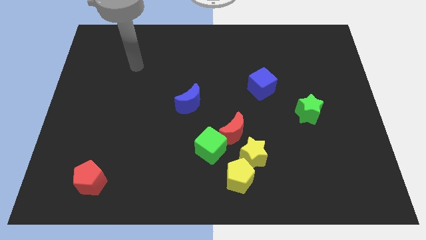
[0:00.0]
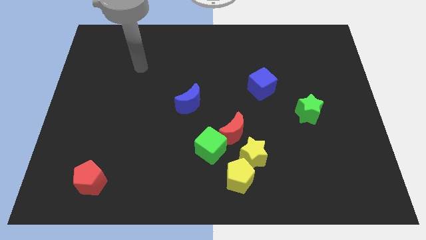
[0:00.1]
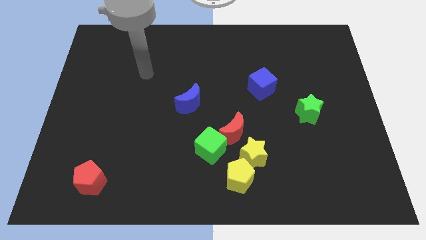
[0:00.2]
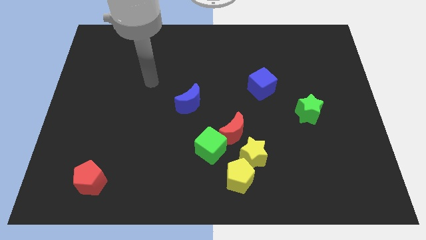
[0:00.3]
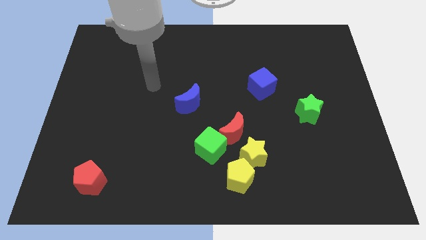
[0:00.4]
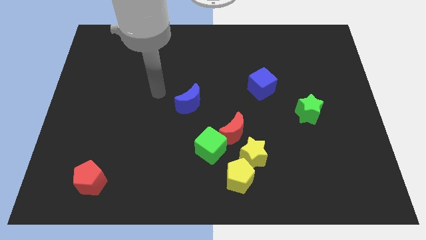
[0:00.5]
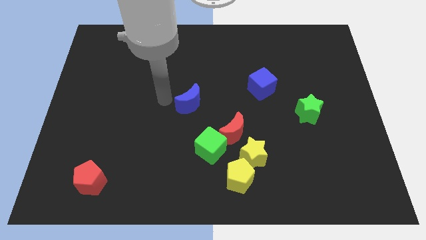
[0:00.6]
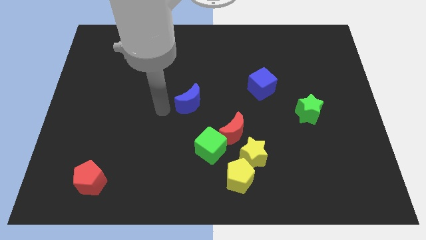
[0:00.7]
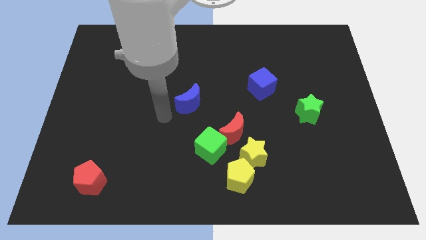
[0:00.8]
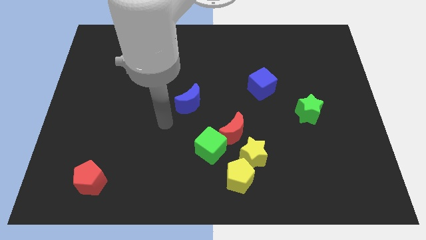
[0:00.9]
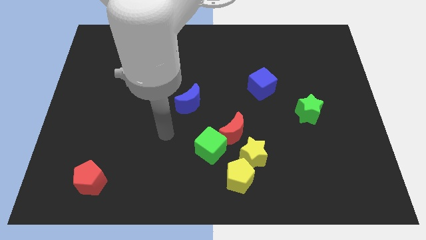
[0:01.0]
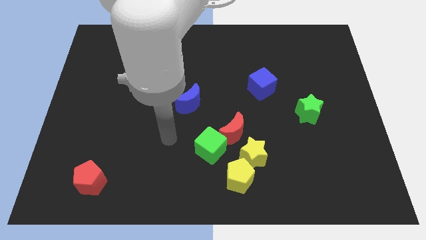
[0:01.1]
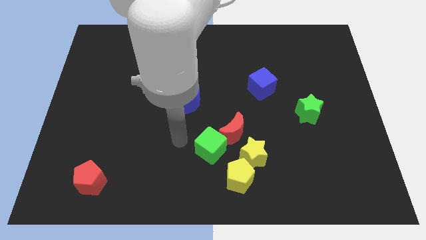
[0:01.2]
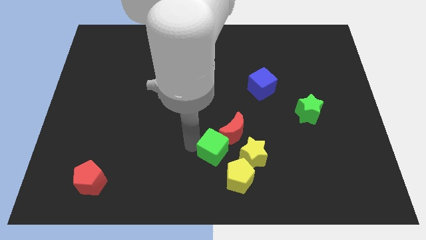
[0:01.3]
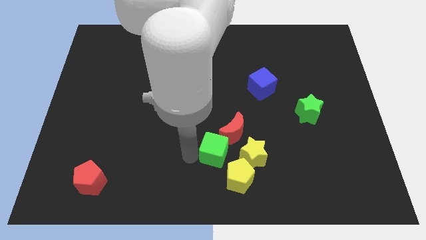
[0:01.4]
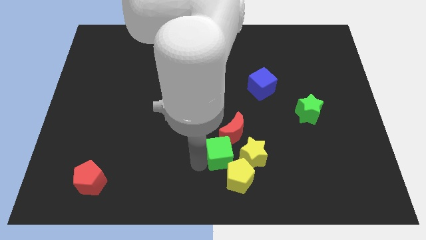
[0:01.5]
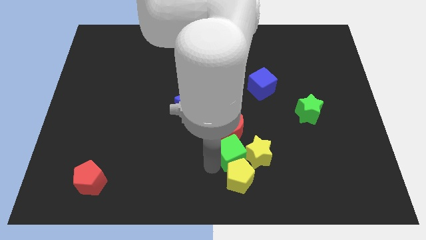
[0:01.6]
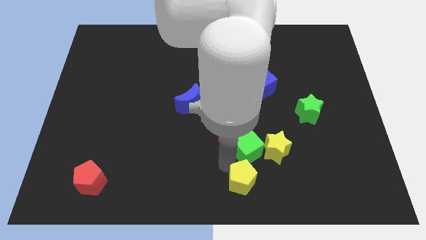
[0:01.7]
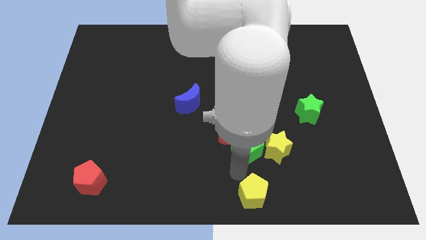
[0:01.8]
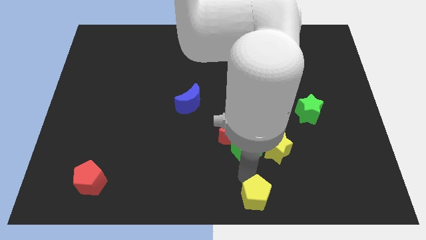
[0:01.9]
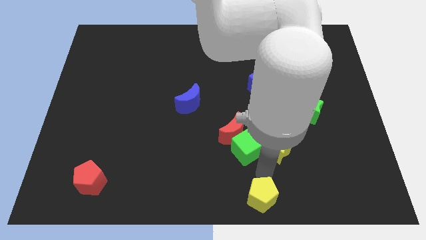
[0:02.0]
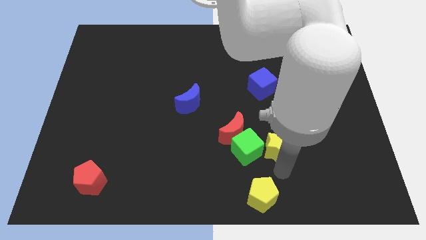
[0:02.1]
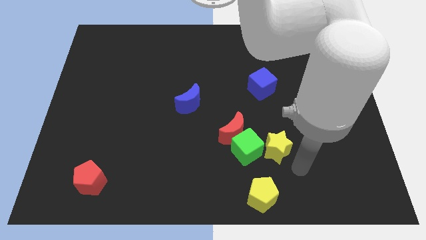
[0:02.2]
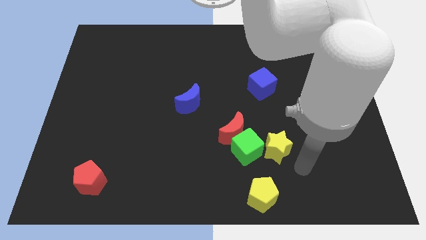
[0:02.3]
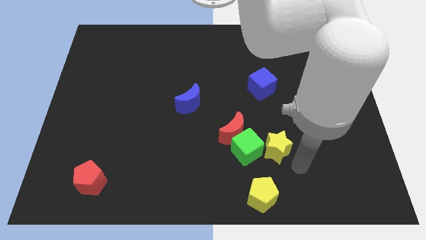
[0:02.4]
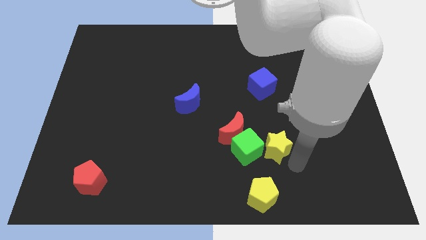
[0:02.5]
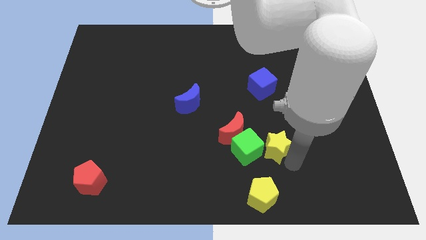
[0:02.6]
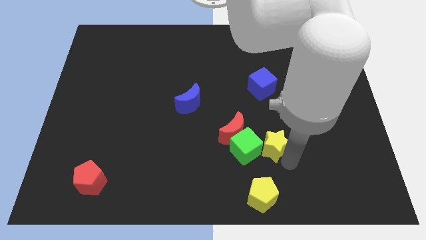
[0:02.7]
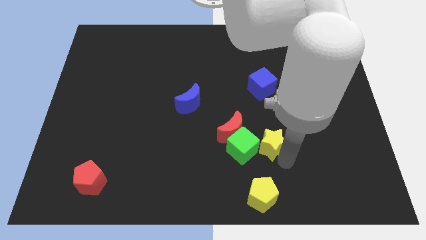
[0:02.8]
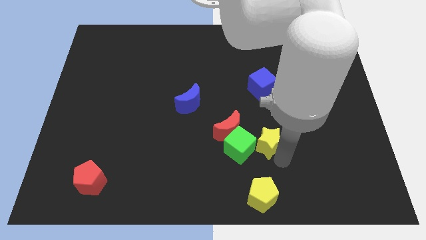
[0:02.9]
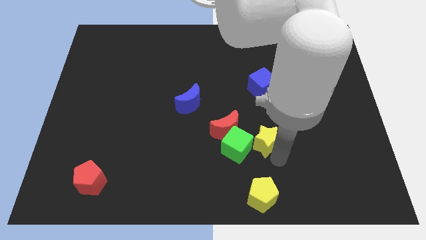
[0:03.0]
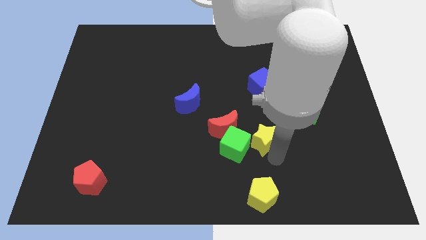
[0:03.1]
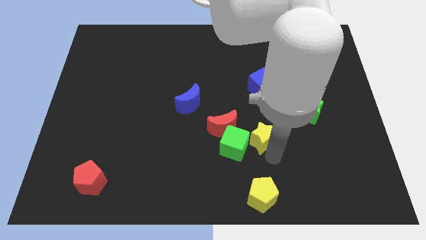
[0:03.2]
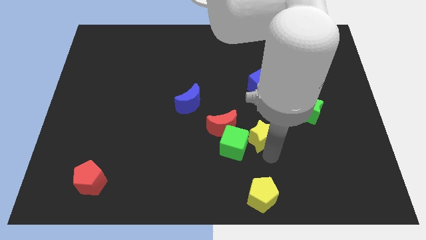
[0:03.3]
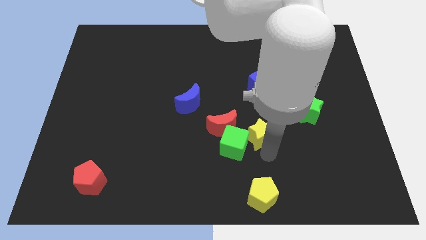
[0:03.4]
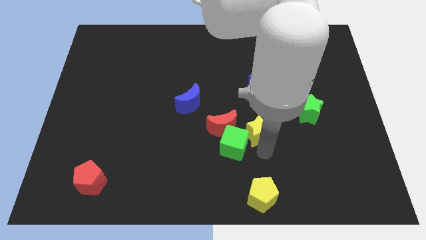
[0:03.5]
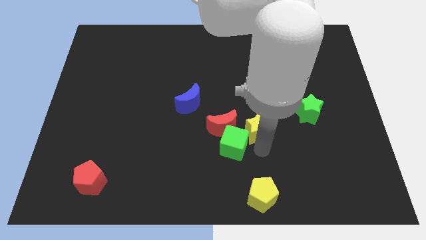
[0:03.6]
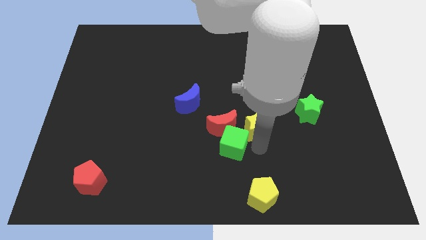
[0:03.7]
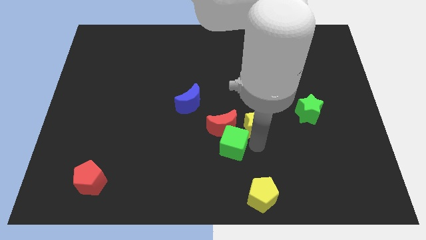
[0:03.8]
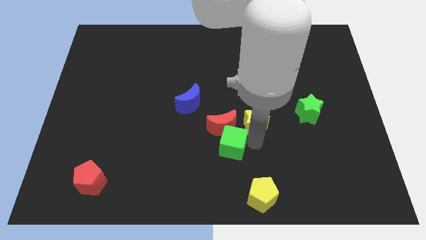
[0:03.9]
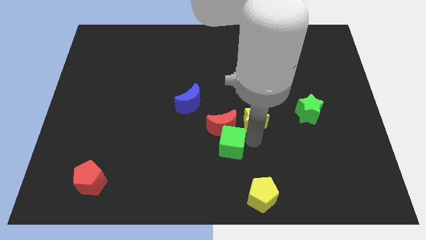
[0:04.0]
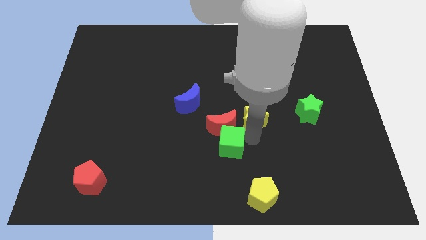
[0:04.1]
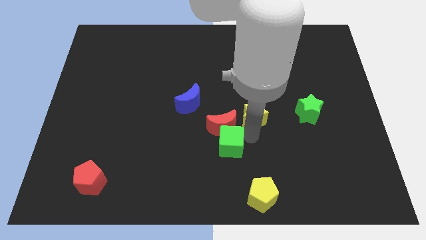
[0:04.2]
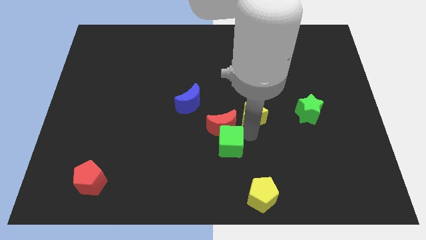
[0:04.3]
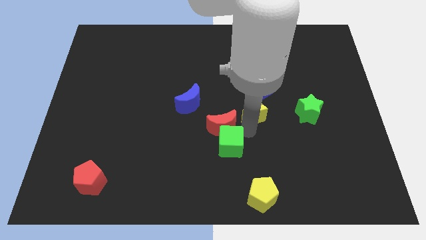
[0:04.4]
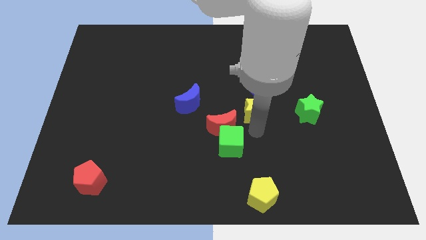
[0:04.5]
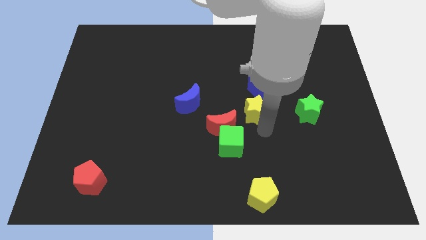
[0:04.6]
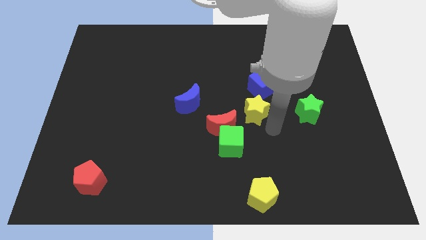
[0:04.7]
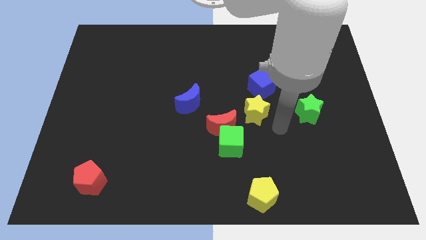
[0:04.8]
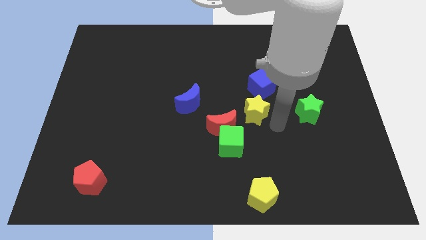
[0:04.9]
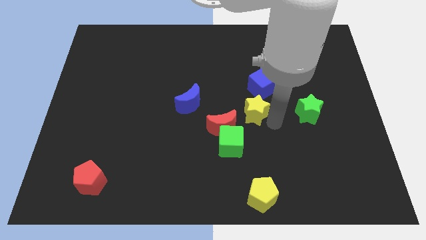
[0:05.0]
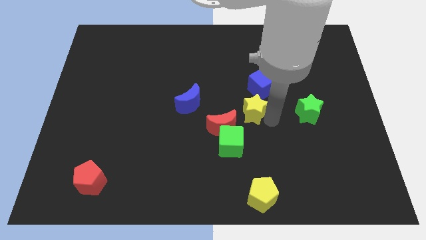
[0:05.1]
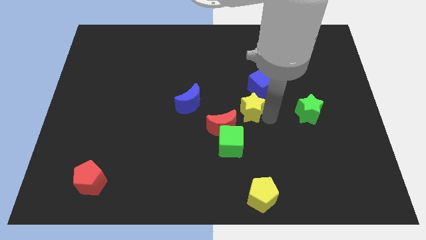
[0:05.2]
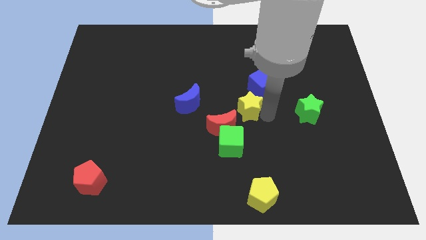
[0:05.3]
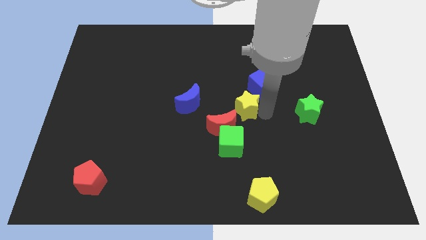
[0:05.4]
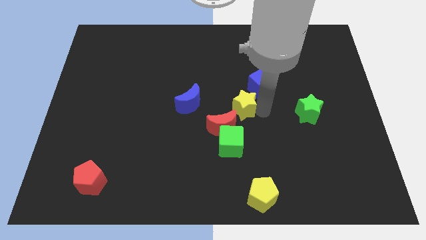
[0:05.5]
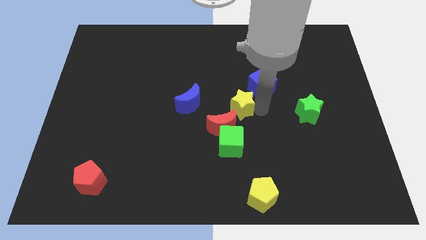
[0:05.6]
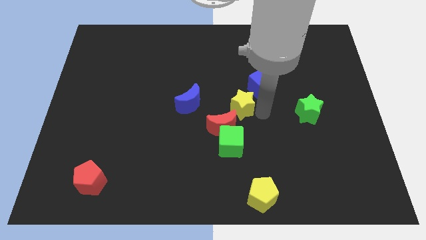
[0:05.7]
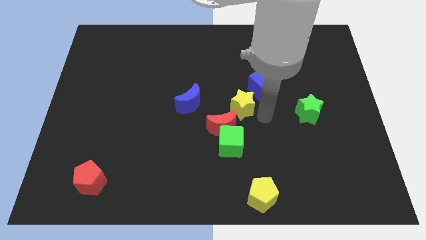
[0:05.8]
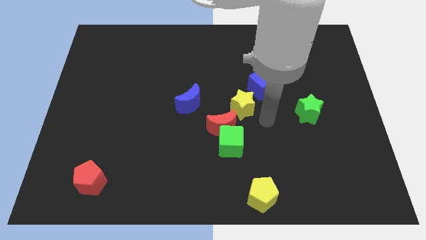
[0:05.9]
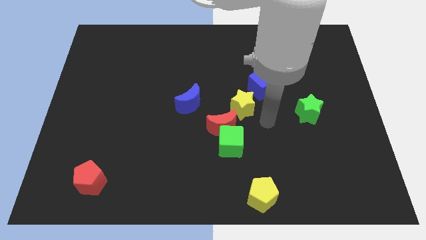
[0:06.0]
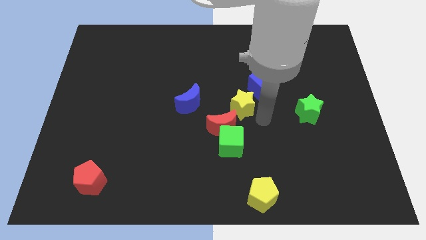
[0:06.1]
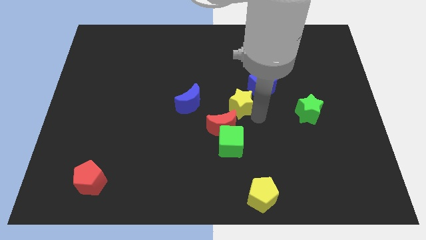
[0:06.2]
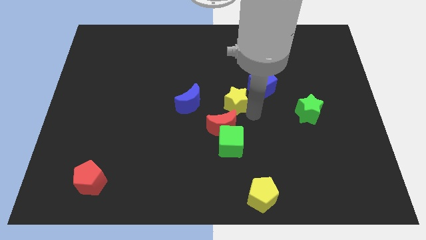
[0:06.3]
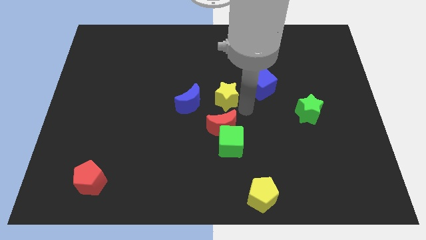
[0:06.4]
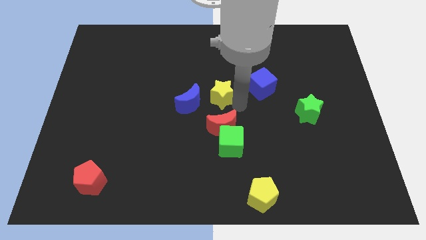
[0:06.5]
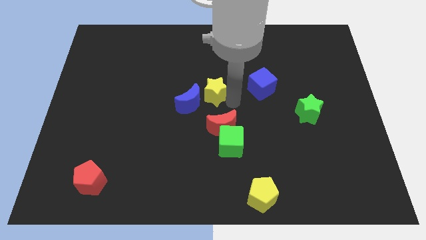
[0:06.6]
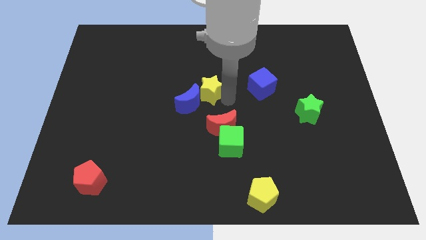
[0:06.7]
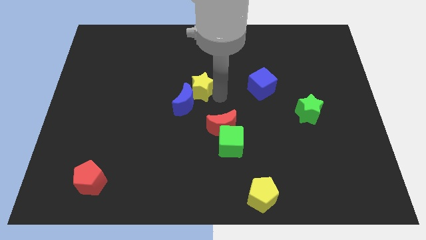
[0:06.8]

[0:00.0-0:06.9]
push the yellow star up and then left

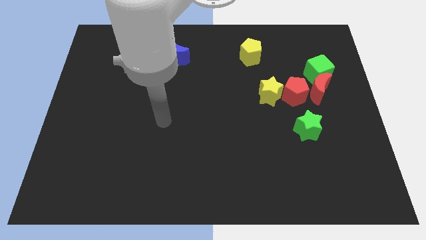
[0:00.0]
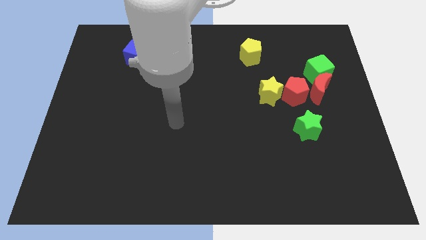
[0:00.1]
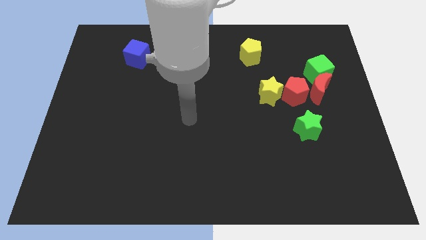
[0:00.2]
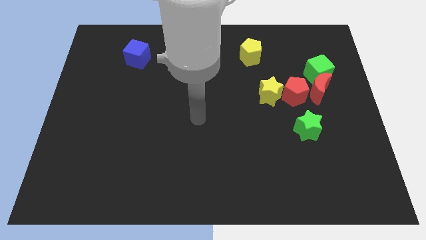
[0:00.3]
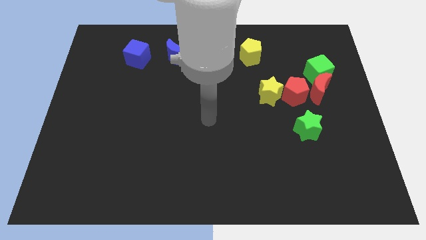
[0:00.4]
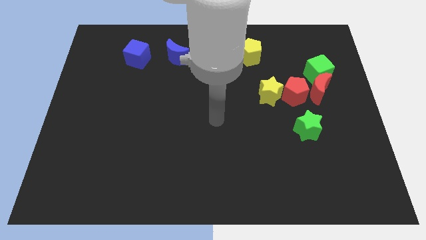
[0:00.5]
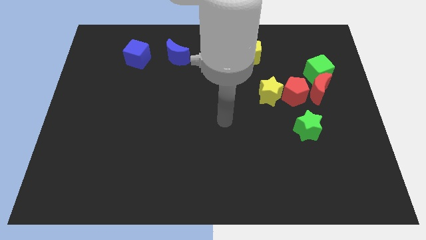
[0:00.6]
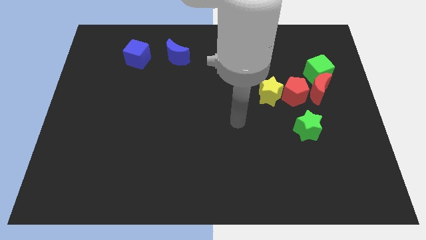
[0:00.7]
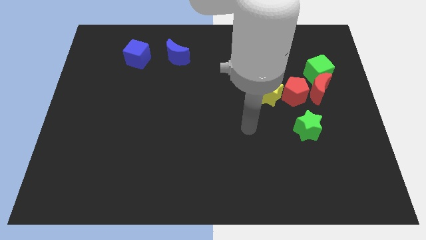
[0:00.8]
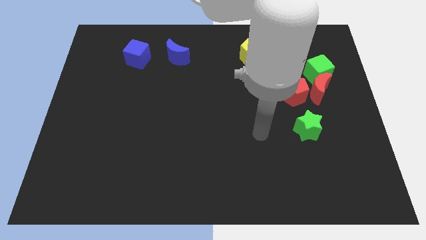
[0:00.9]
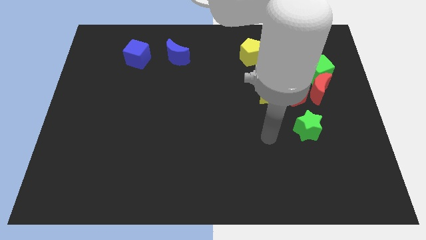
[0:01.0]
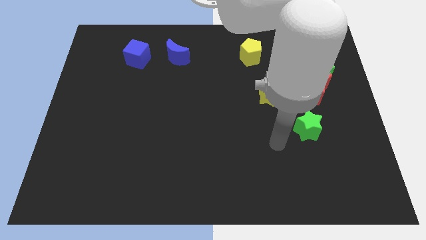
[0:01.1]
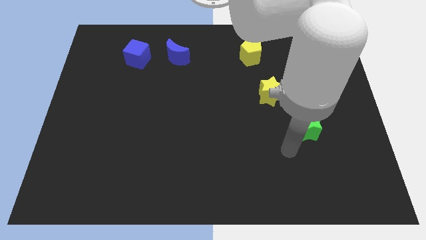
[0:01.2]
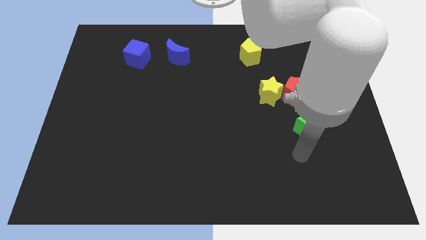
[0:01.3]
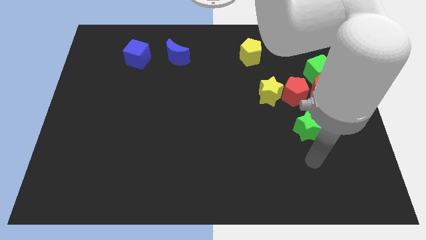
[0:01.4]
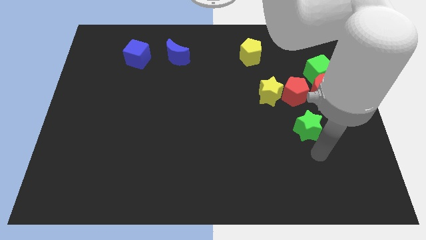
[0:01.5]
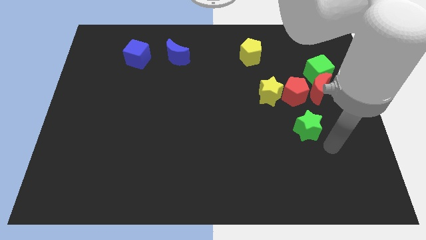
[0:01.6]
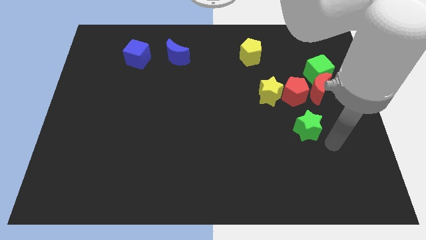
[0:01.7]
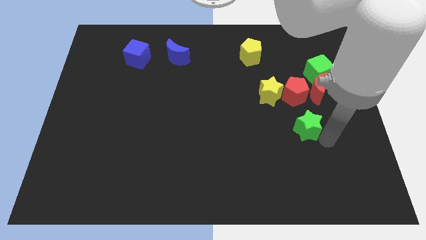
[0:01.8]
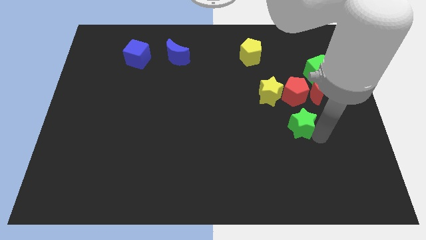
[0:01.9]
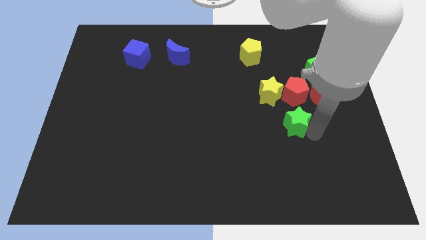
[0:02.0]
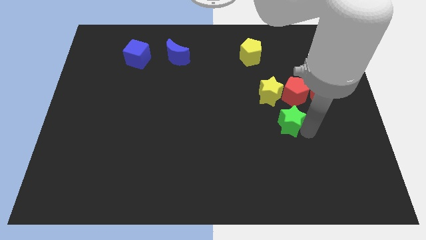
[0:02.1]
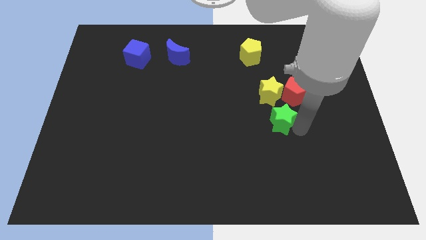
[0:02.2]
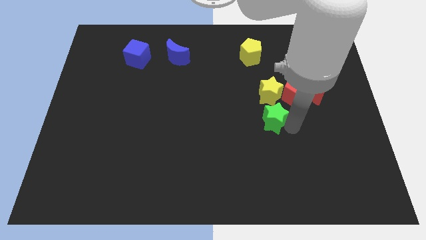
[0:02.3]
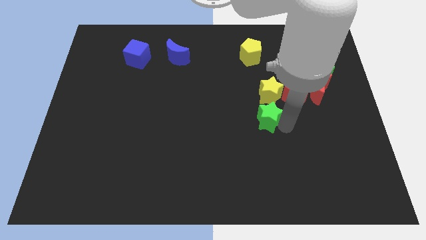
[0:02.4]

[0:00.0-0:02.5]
slightly push the green star diagonally up and to the left
